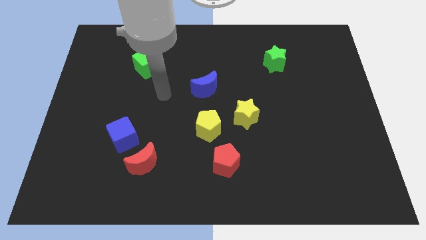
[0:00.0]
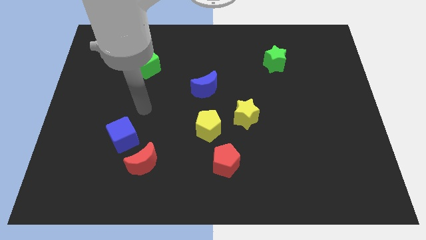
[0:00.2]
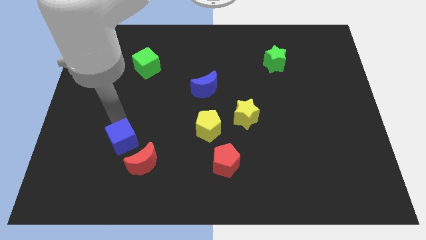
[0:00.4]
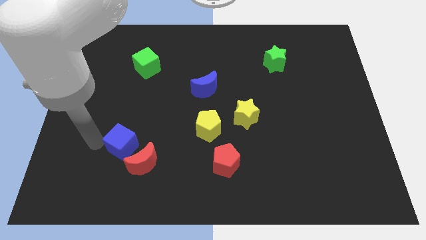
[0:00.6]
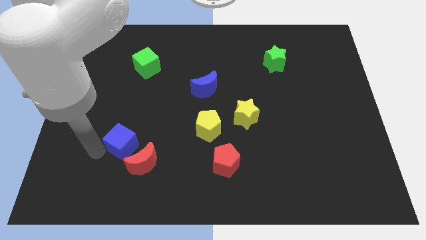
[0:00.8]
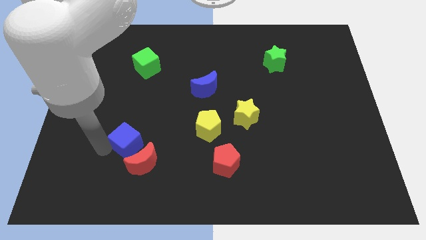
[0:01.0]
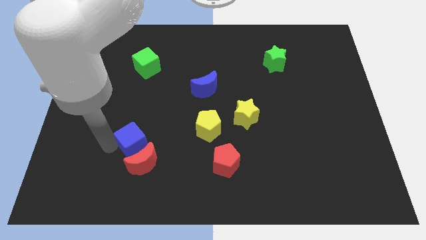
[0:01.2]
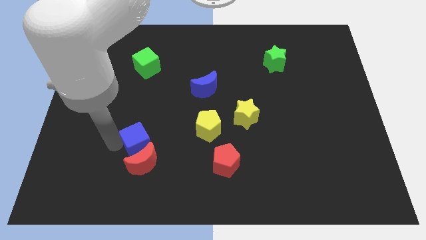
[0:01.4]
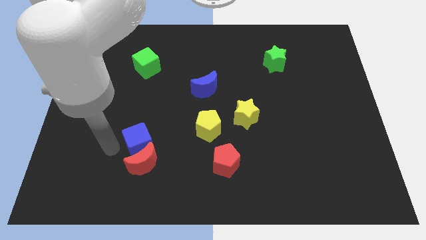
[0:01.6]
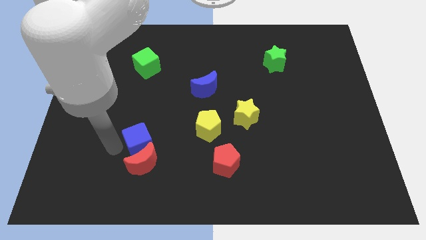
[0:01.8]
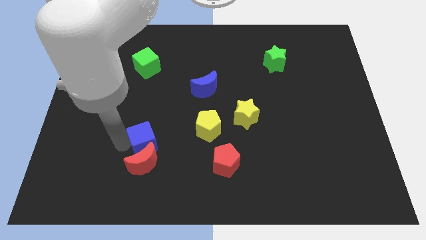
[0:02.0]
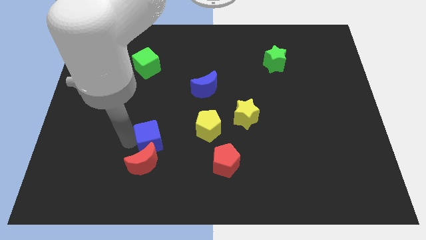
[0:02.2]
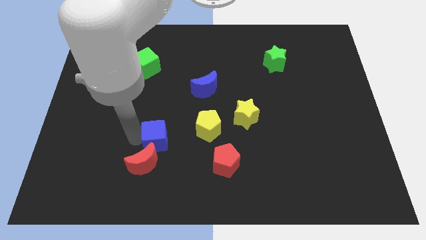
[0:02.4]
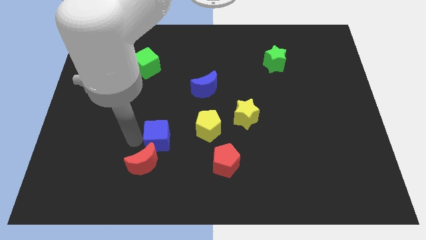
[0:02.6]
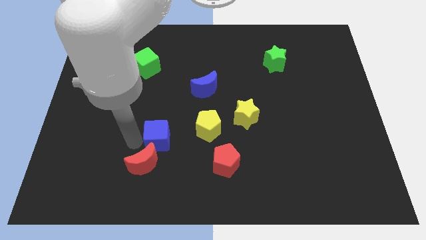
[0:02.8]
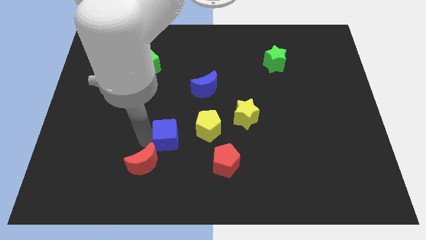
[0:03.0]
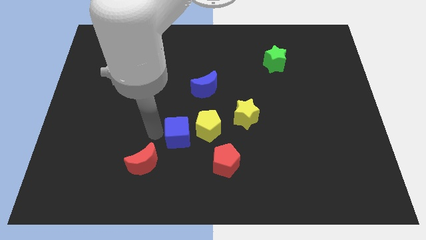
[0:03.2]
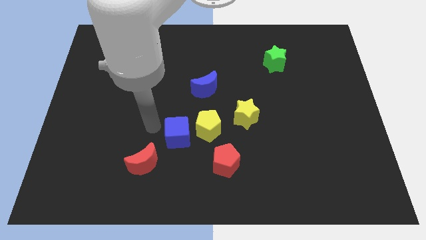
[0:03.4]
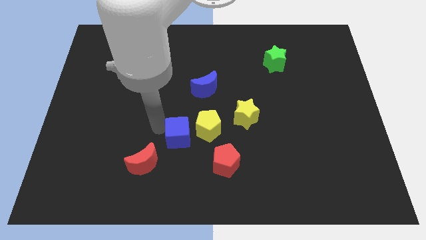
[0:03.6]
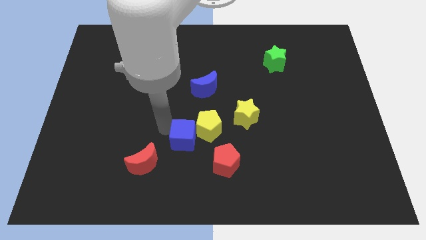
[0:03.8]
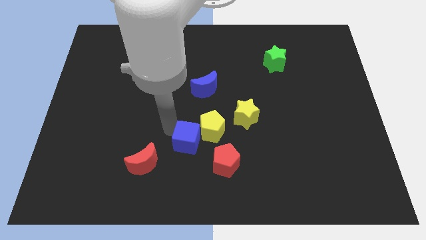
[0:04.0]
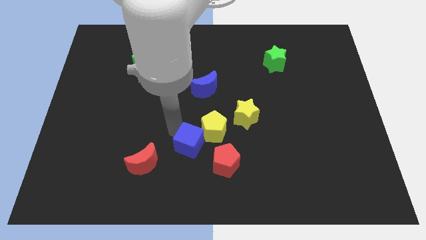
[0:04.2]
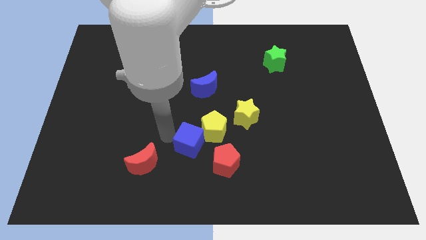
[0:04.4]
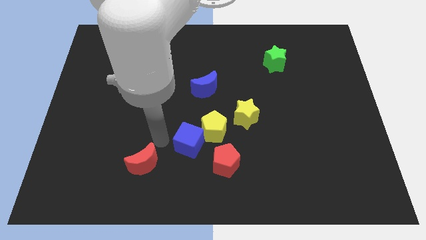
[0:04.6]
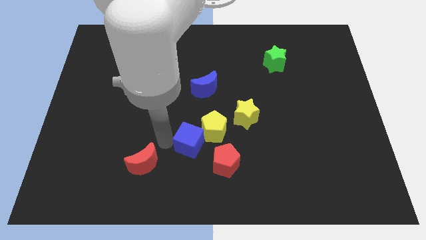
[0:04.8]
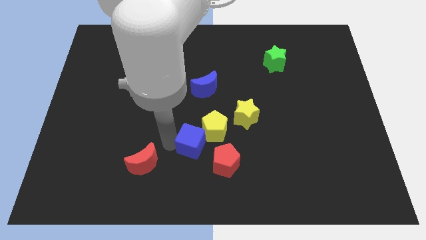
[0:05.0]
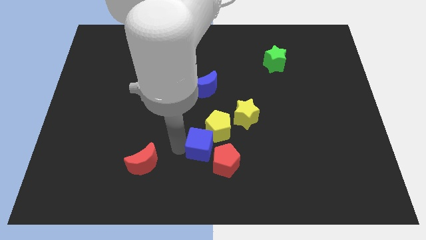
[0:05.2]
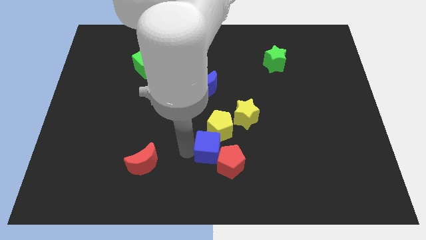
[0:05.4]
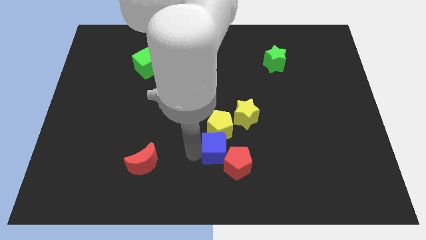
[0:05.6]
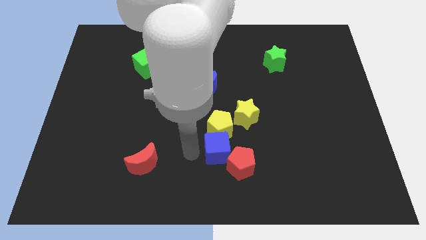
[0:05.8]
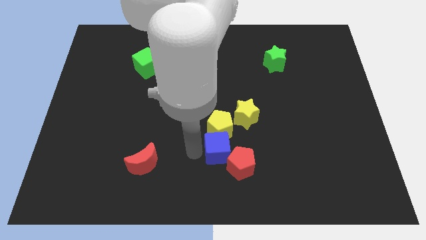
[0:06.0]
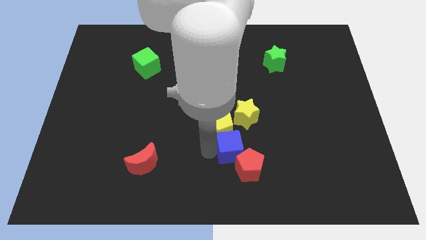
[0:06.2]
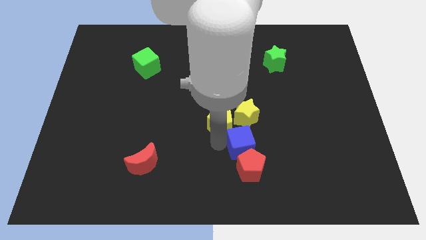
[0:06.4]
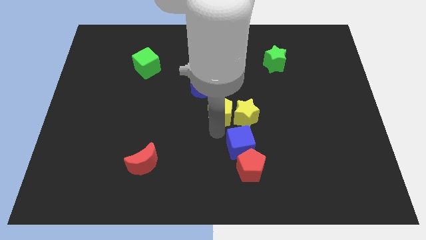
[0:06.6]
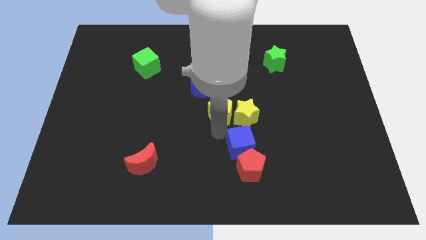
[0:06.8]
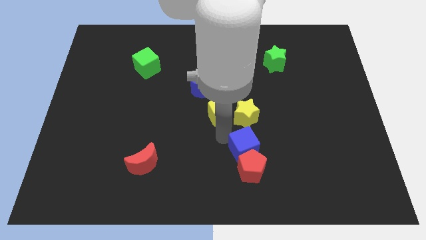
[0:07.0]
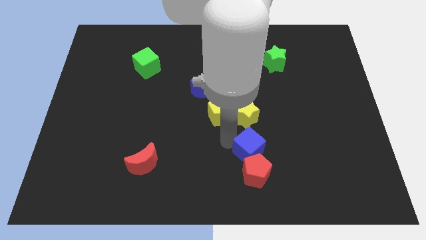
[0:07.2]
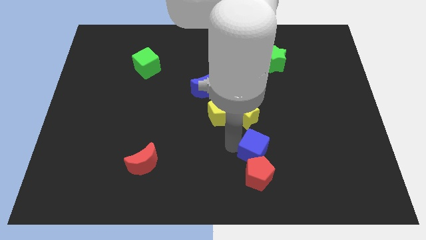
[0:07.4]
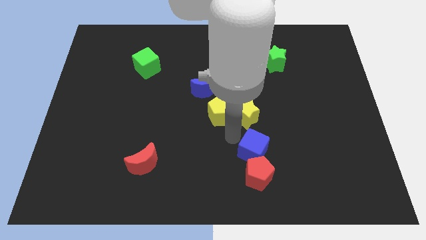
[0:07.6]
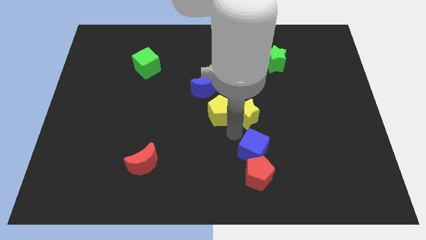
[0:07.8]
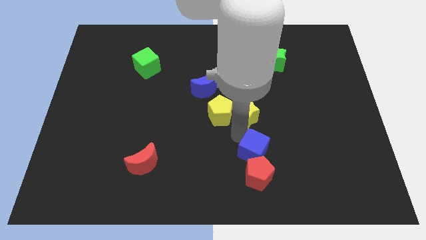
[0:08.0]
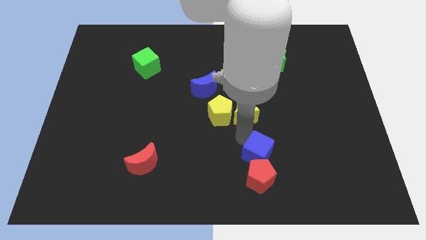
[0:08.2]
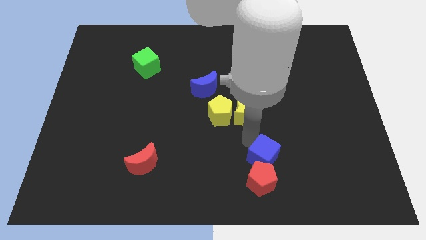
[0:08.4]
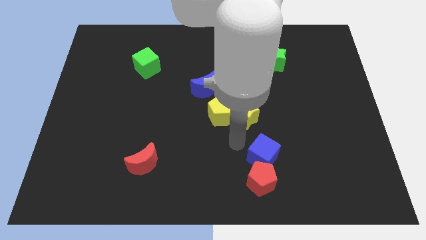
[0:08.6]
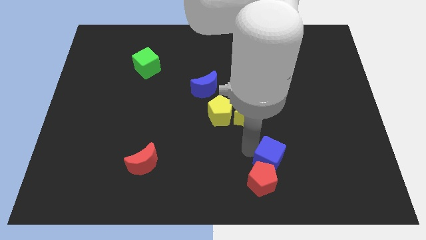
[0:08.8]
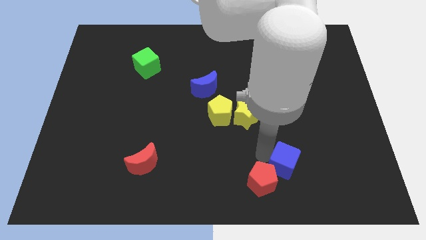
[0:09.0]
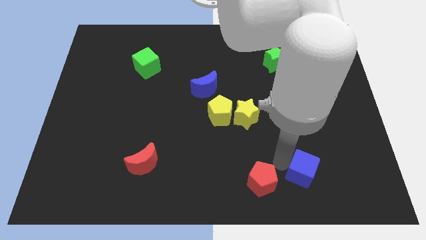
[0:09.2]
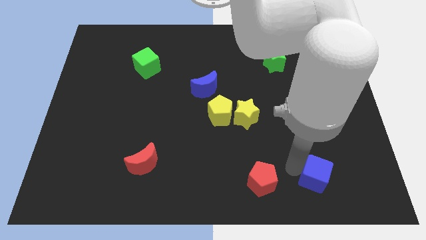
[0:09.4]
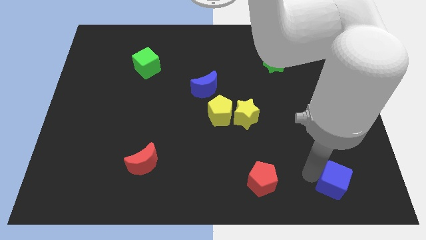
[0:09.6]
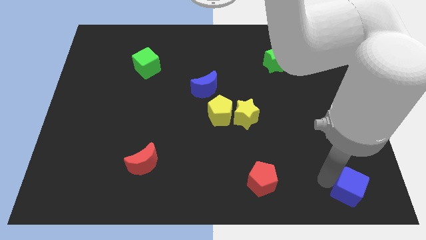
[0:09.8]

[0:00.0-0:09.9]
slide the blue cube to the lower right corner
